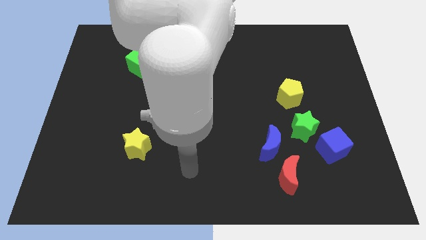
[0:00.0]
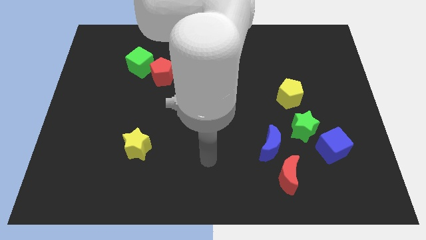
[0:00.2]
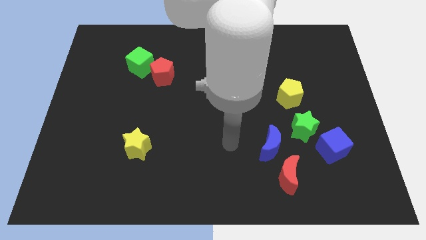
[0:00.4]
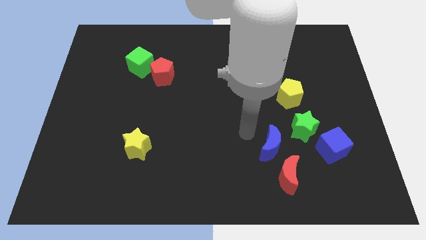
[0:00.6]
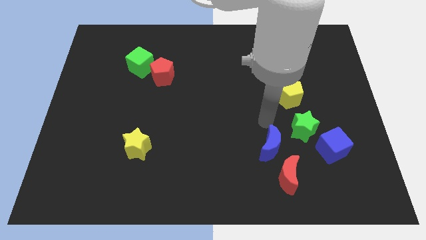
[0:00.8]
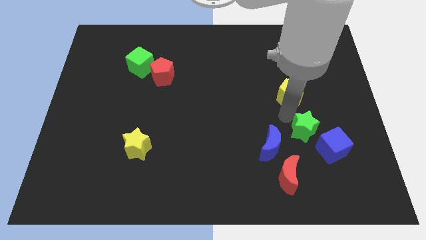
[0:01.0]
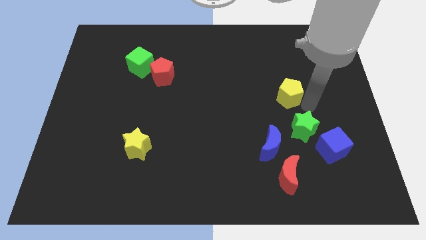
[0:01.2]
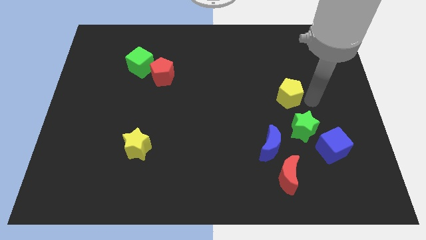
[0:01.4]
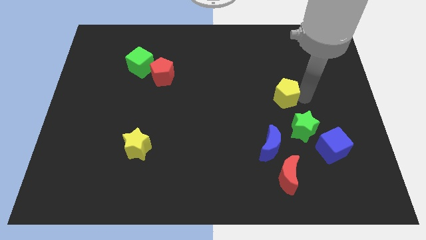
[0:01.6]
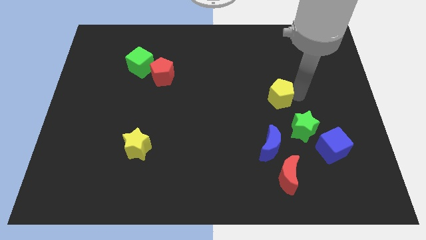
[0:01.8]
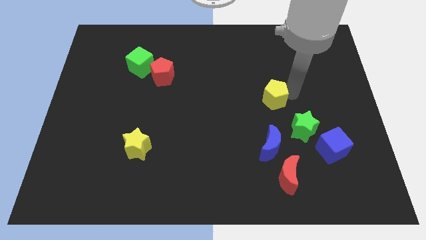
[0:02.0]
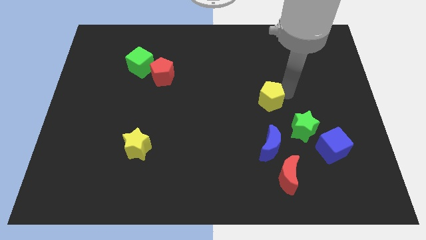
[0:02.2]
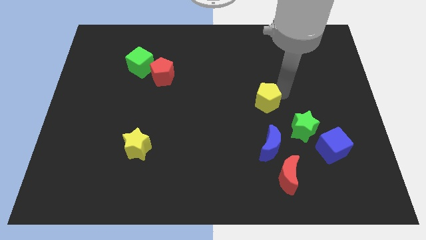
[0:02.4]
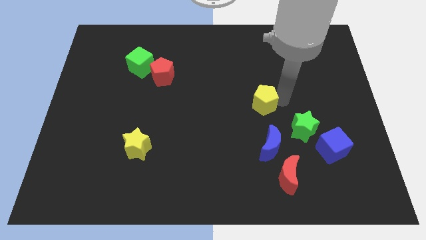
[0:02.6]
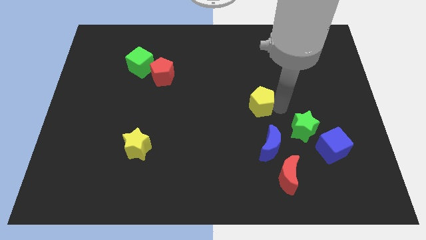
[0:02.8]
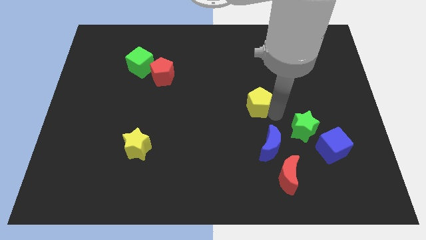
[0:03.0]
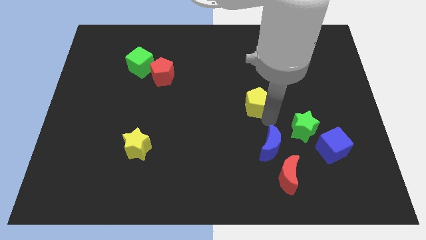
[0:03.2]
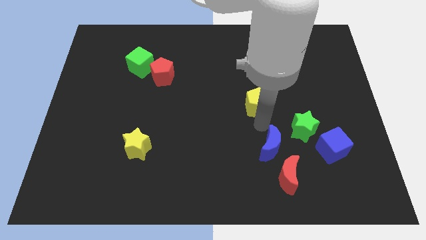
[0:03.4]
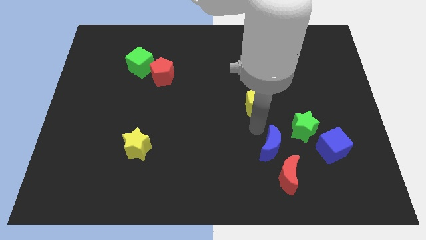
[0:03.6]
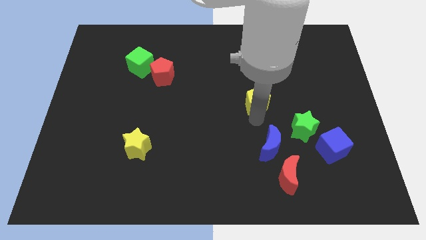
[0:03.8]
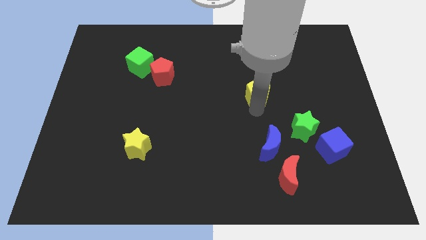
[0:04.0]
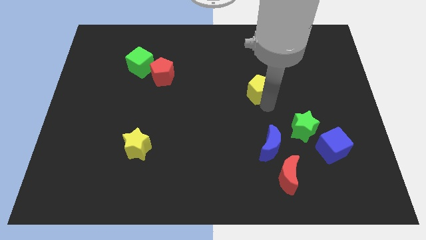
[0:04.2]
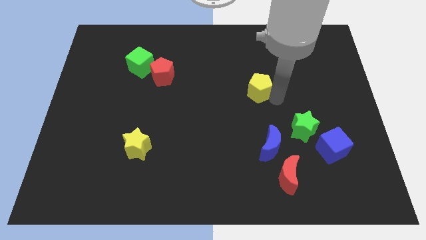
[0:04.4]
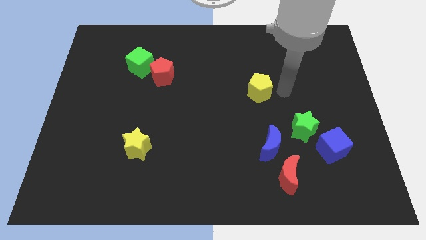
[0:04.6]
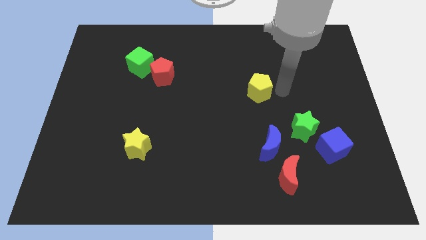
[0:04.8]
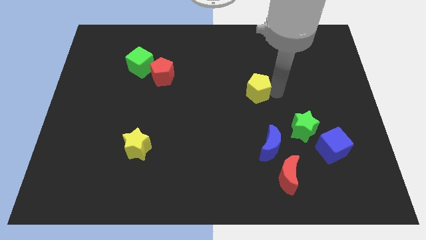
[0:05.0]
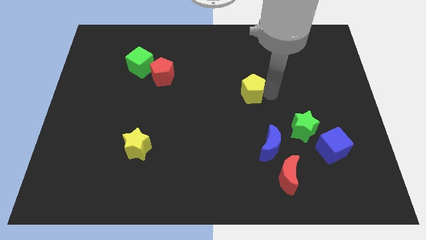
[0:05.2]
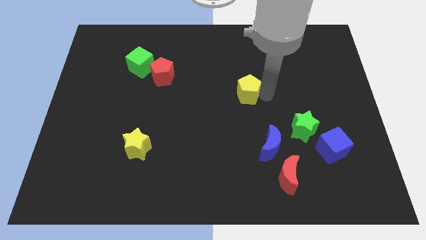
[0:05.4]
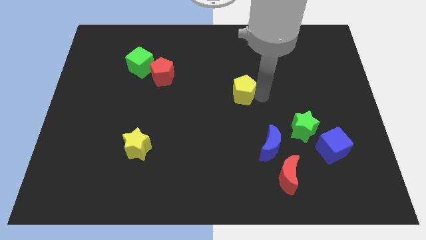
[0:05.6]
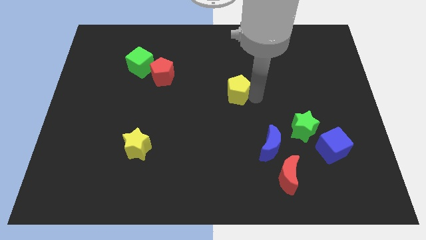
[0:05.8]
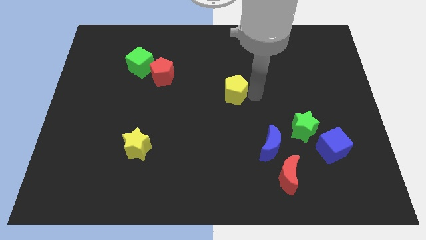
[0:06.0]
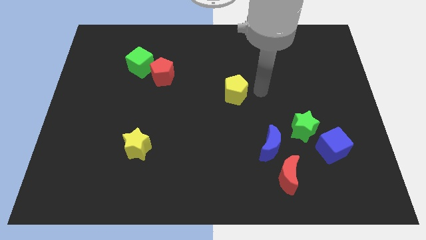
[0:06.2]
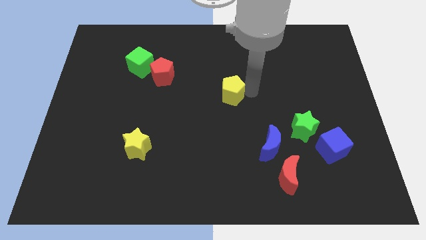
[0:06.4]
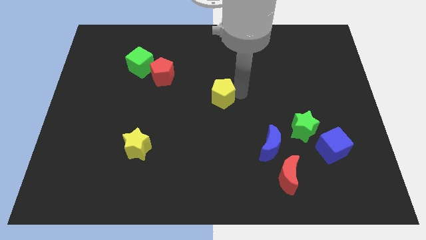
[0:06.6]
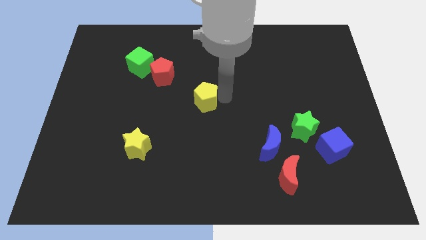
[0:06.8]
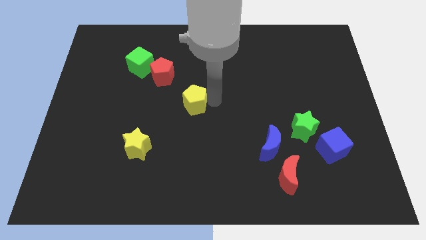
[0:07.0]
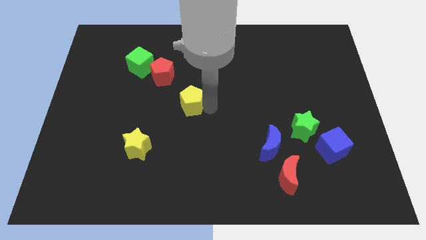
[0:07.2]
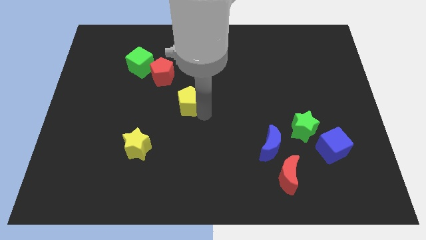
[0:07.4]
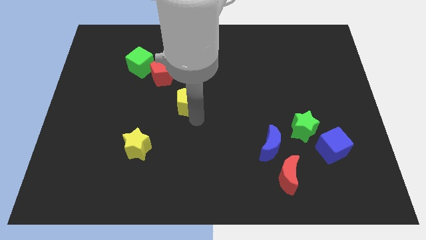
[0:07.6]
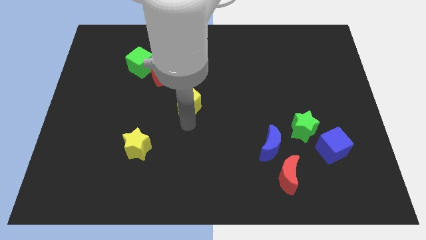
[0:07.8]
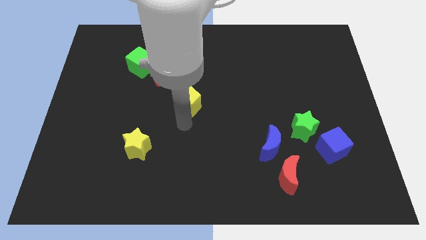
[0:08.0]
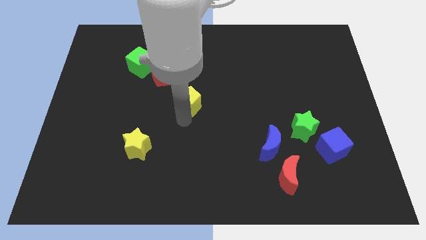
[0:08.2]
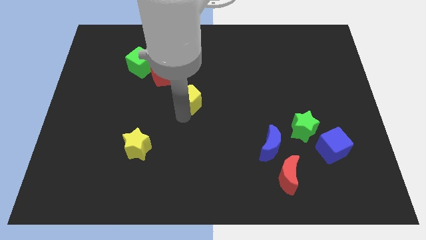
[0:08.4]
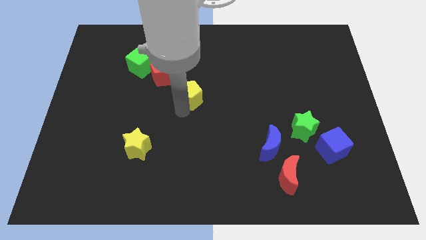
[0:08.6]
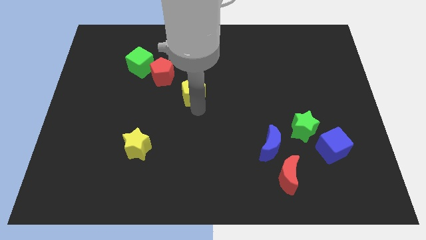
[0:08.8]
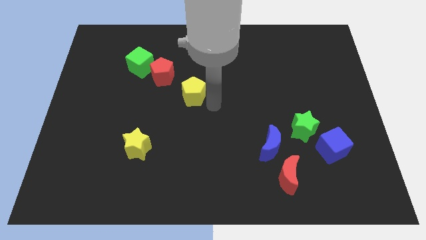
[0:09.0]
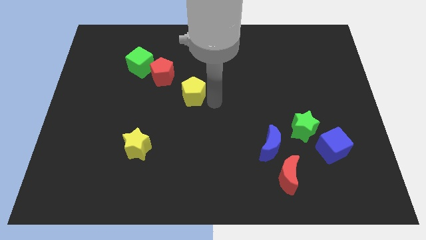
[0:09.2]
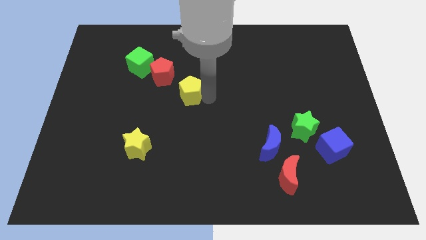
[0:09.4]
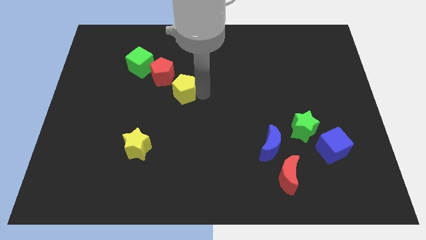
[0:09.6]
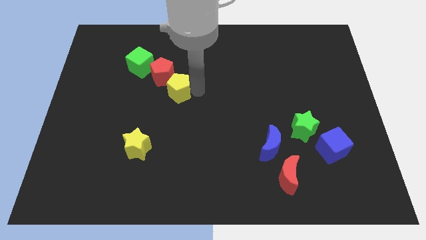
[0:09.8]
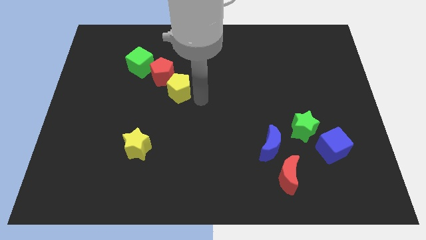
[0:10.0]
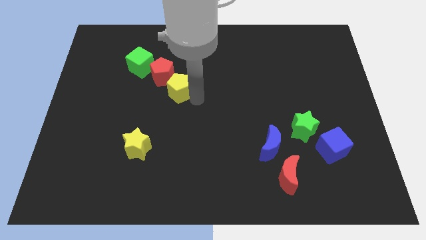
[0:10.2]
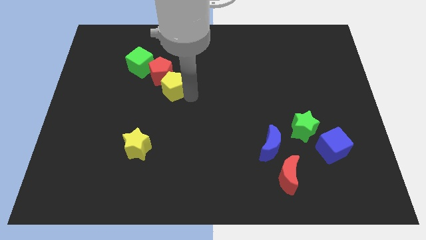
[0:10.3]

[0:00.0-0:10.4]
push the yellow pentagon diagonally down and to the right of the green cube

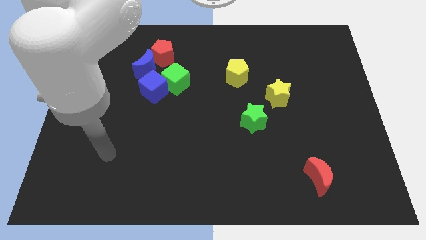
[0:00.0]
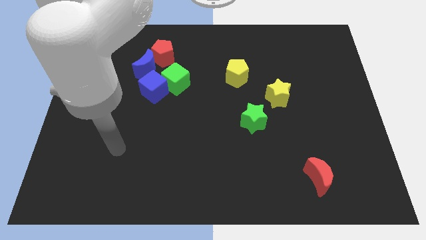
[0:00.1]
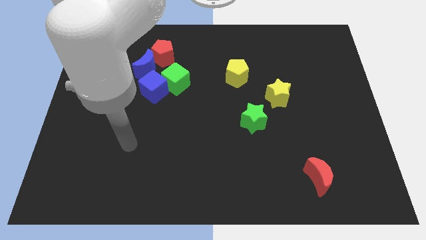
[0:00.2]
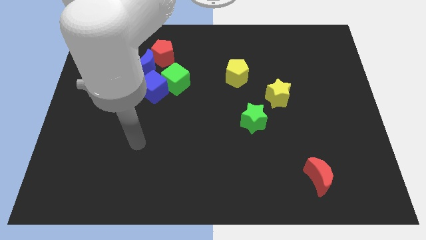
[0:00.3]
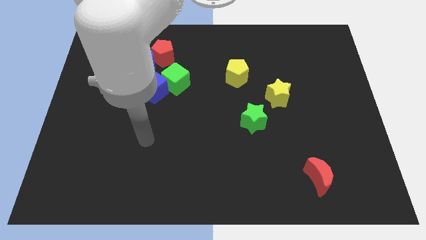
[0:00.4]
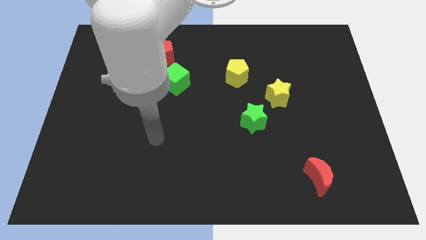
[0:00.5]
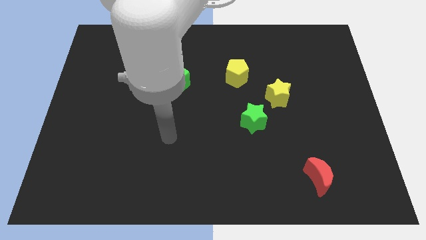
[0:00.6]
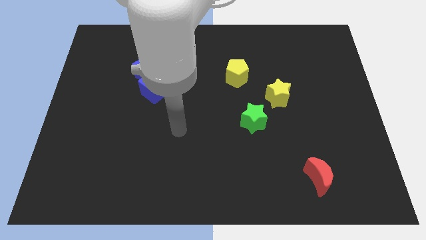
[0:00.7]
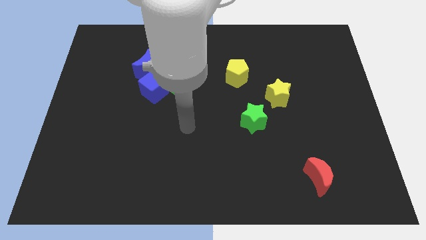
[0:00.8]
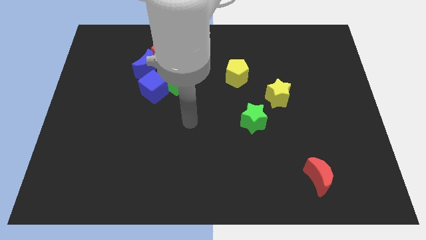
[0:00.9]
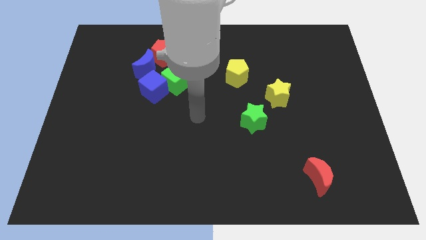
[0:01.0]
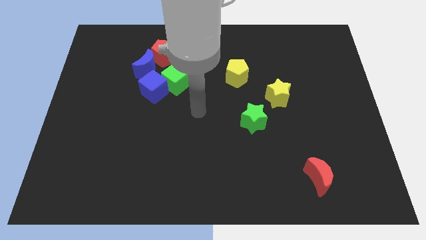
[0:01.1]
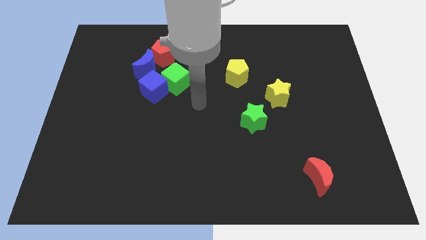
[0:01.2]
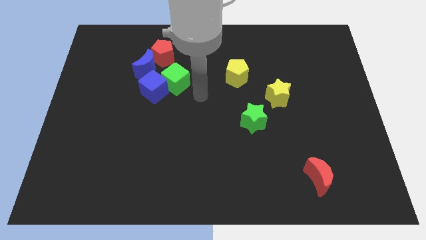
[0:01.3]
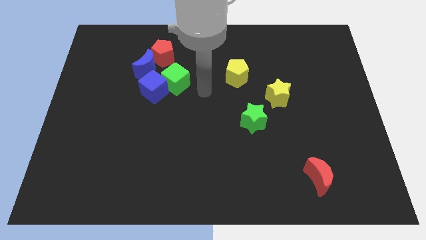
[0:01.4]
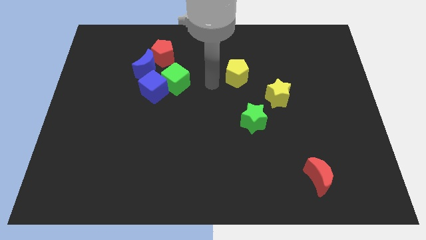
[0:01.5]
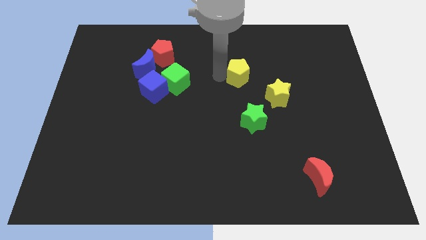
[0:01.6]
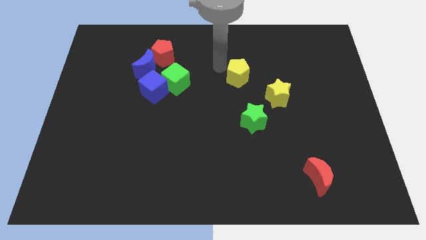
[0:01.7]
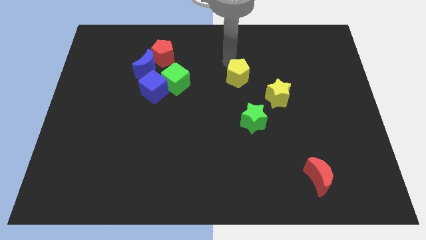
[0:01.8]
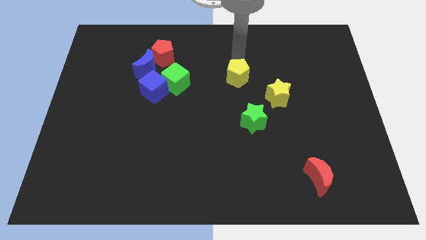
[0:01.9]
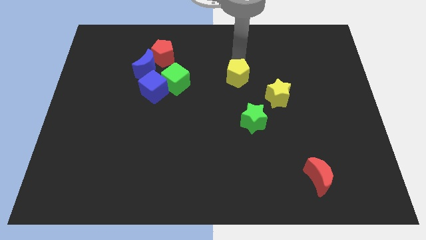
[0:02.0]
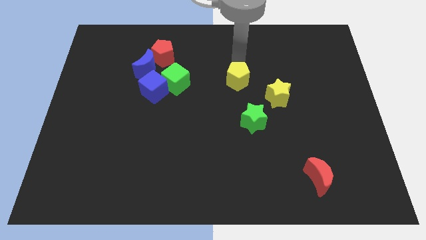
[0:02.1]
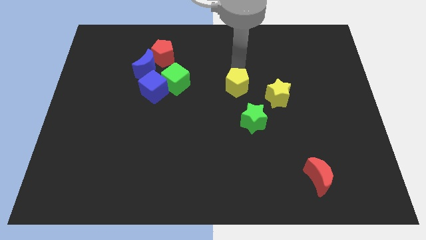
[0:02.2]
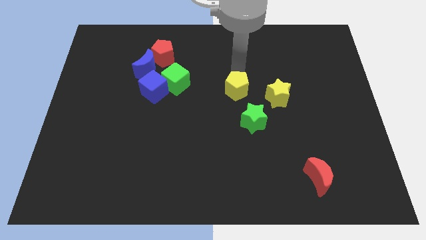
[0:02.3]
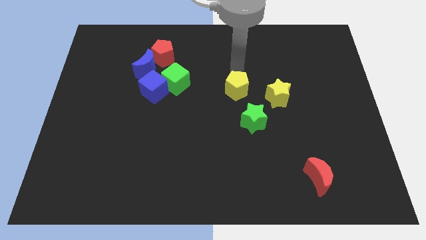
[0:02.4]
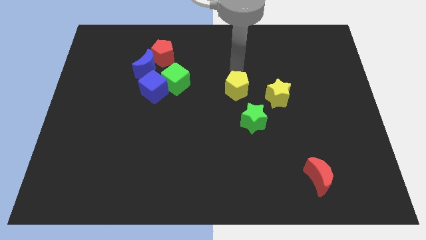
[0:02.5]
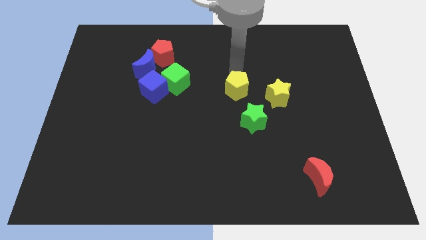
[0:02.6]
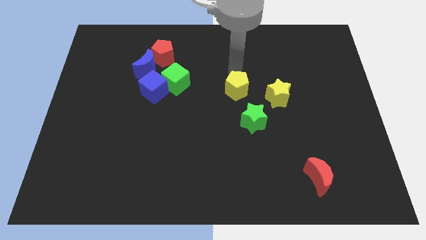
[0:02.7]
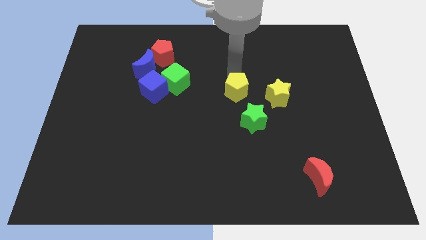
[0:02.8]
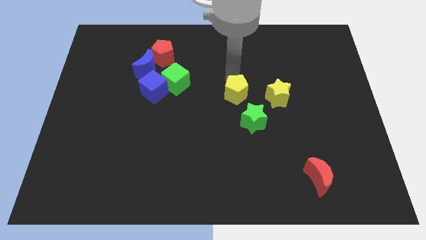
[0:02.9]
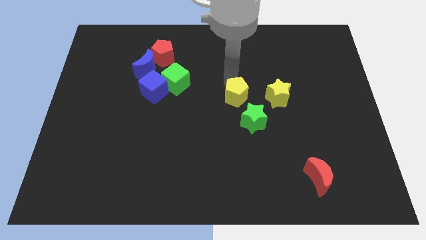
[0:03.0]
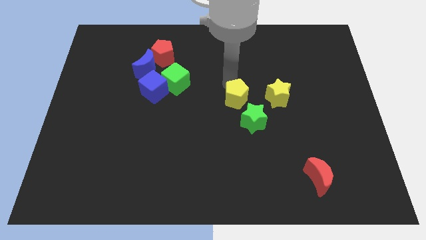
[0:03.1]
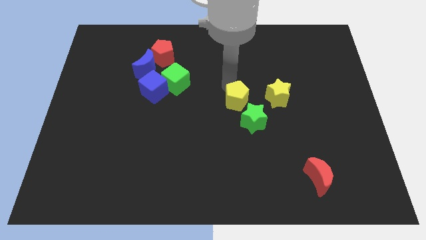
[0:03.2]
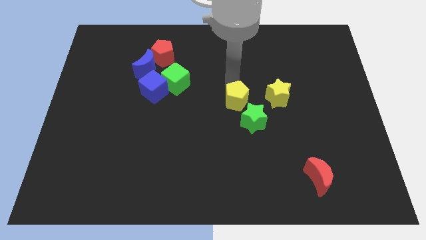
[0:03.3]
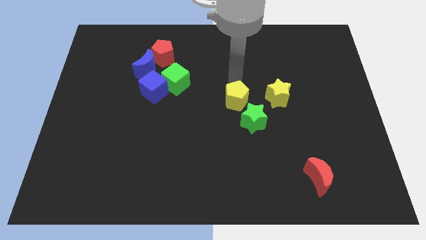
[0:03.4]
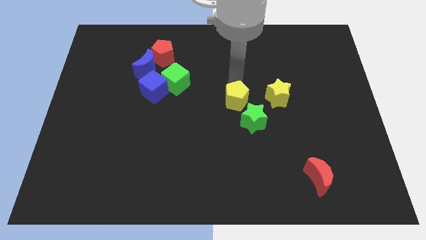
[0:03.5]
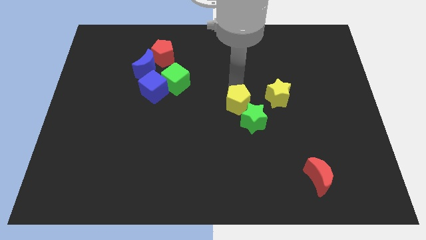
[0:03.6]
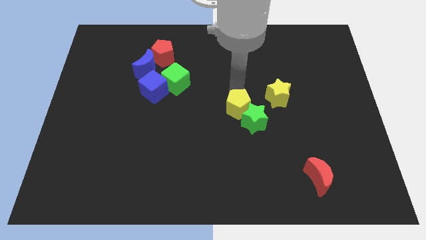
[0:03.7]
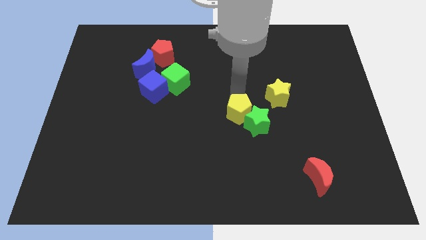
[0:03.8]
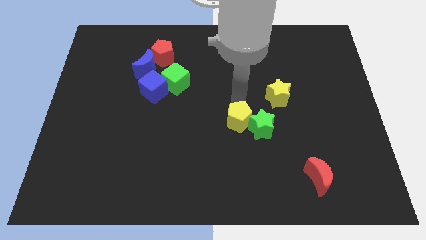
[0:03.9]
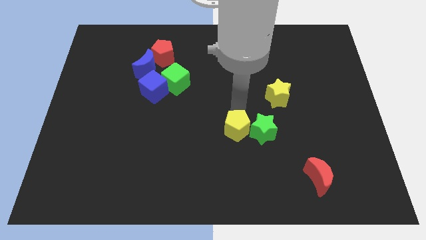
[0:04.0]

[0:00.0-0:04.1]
move the yellow pentagon to the bottom left of the green star
